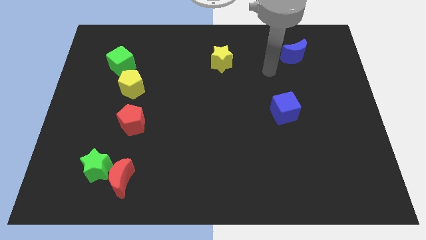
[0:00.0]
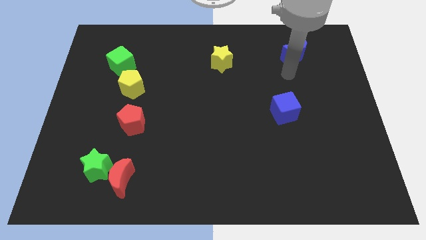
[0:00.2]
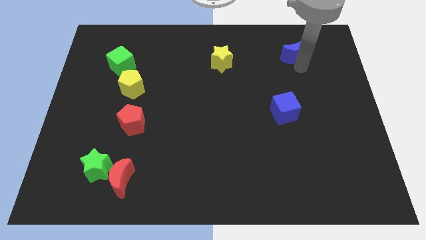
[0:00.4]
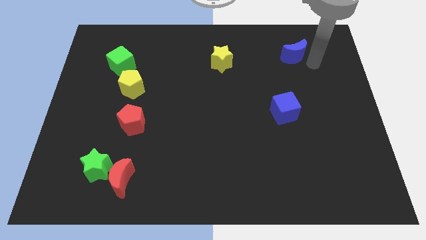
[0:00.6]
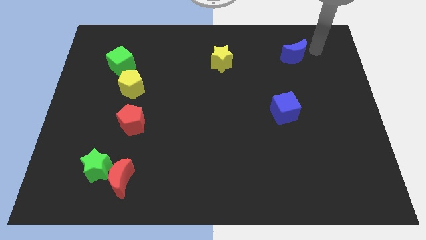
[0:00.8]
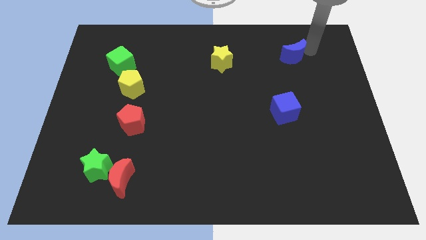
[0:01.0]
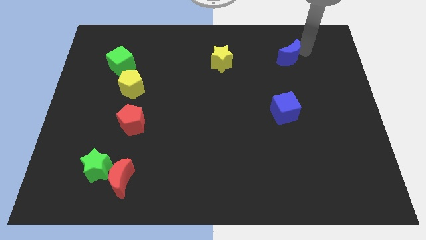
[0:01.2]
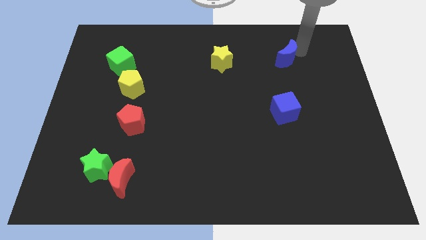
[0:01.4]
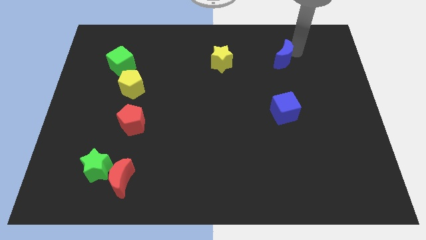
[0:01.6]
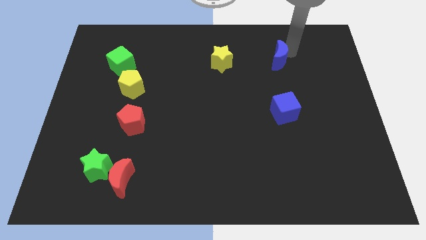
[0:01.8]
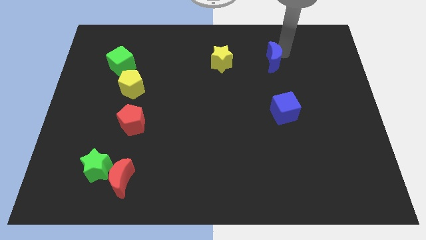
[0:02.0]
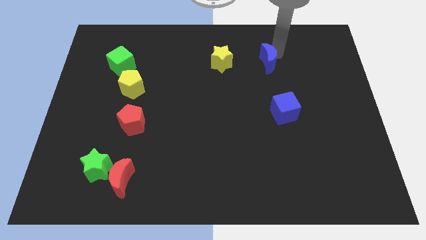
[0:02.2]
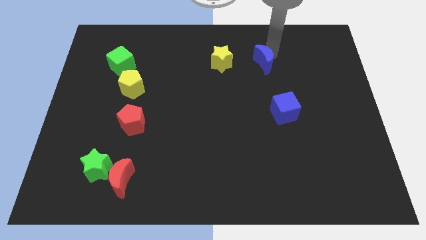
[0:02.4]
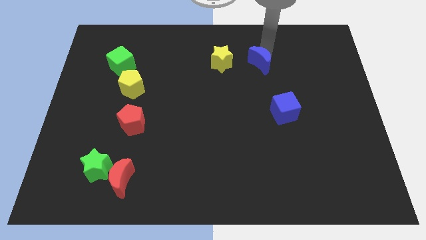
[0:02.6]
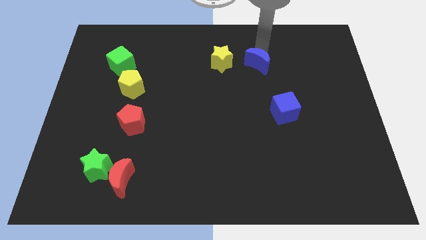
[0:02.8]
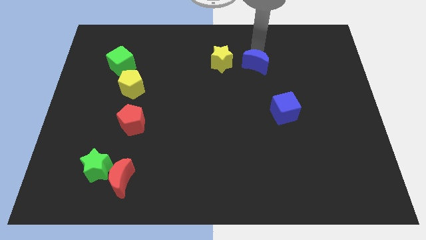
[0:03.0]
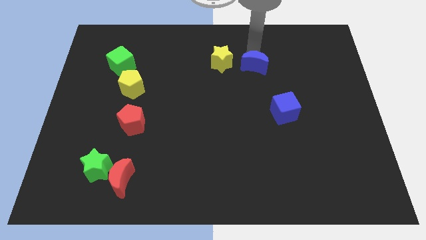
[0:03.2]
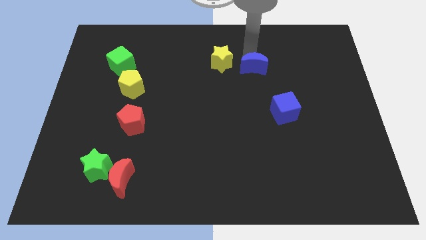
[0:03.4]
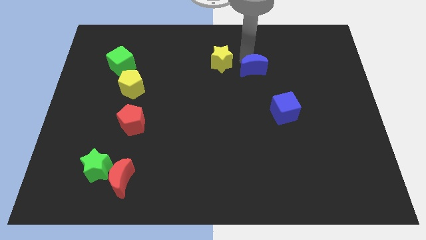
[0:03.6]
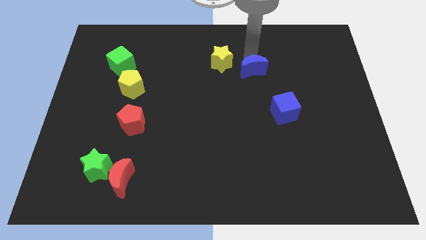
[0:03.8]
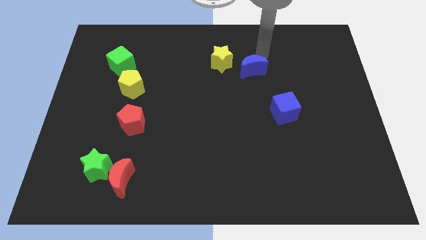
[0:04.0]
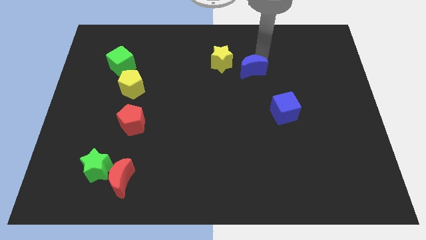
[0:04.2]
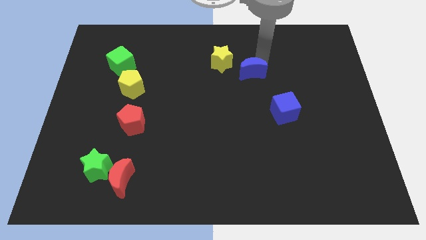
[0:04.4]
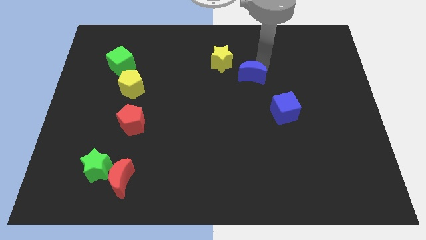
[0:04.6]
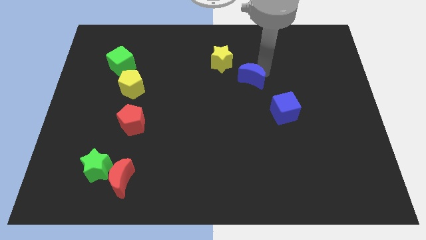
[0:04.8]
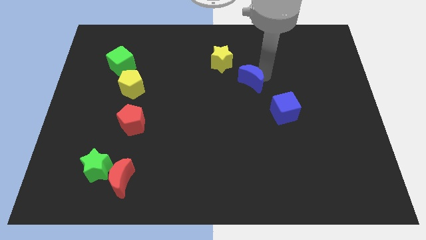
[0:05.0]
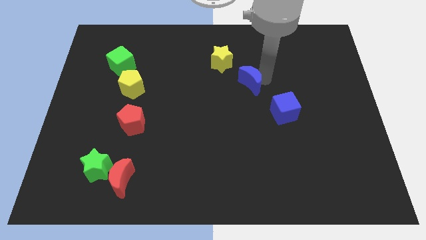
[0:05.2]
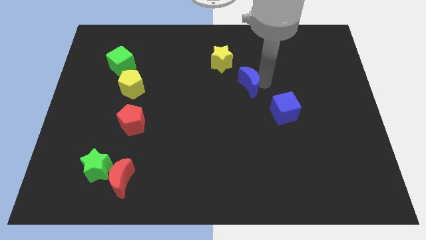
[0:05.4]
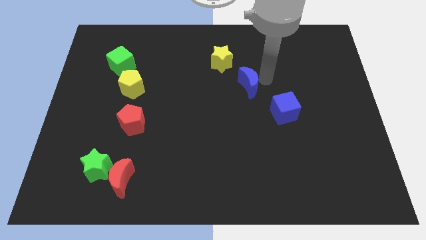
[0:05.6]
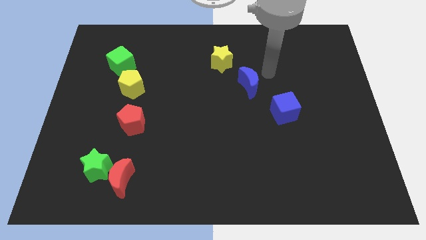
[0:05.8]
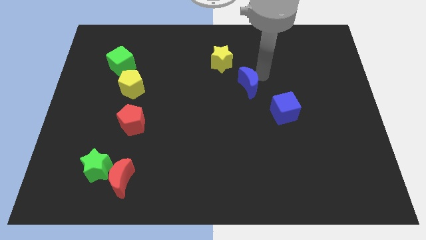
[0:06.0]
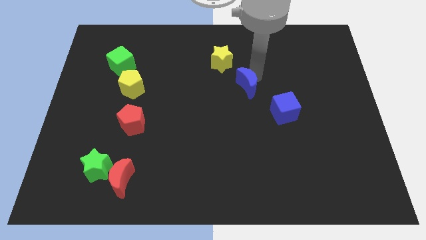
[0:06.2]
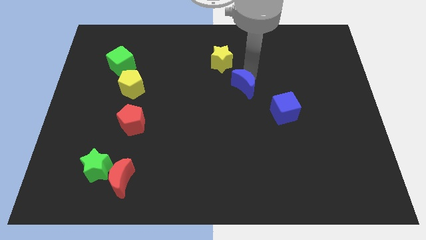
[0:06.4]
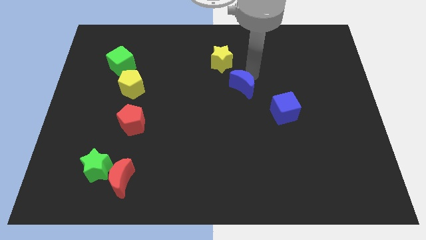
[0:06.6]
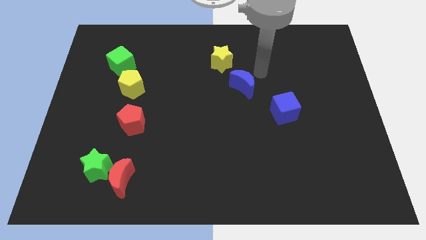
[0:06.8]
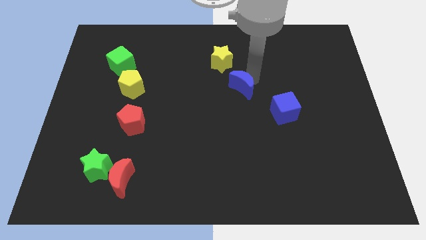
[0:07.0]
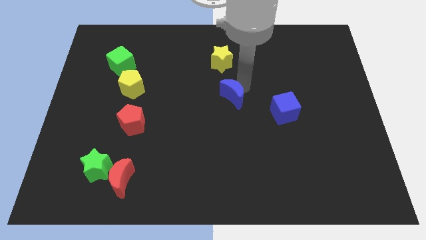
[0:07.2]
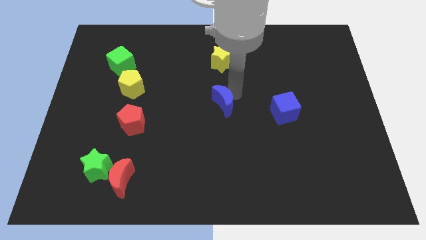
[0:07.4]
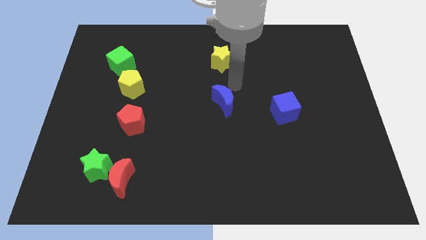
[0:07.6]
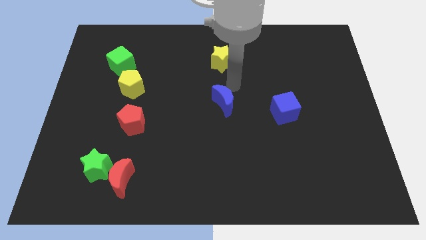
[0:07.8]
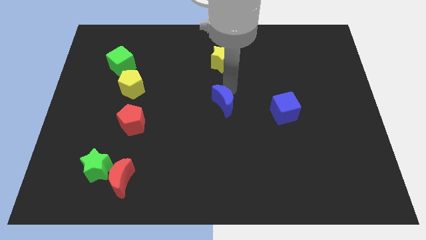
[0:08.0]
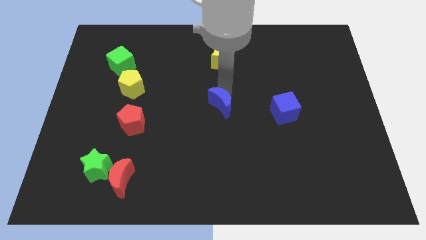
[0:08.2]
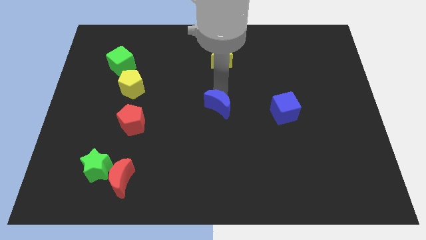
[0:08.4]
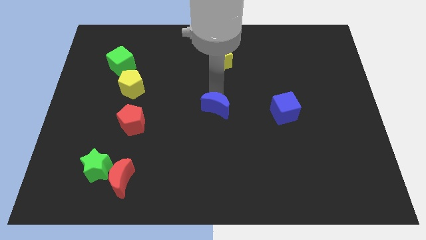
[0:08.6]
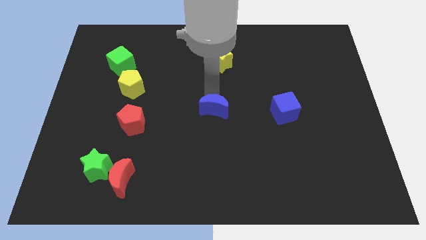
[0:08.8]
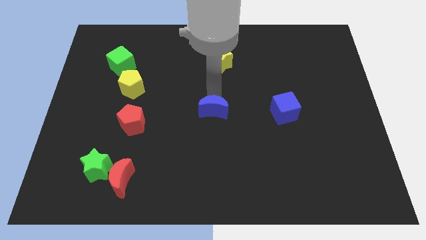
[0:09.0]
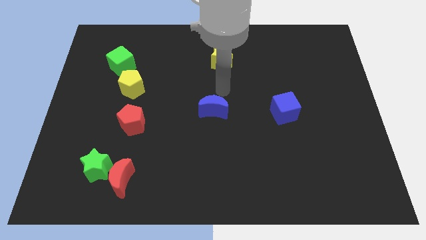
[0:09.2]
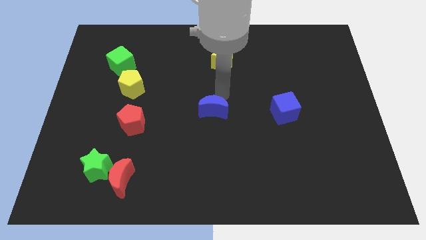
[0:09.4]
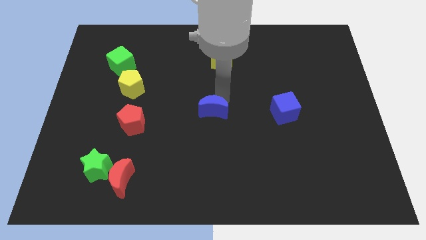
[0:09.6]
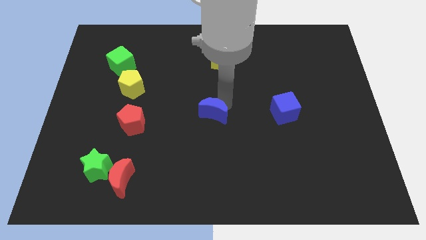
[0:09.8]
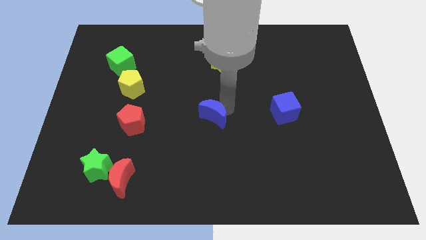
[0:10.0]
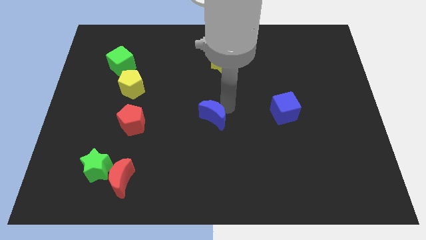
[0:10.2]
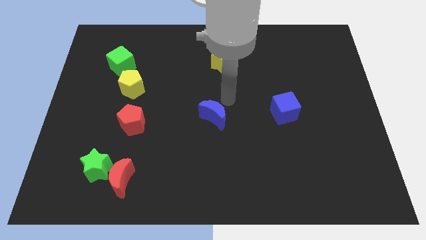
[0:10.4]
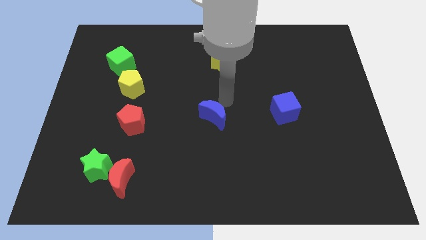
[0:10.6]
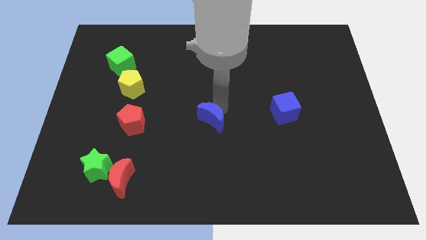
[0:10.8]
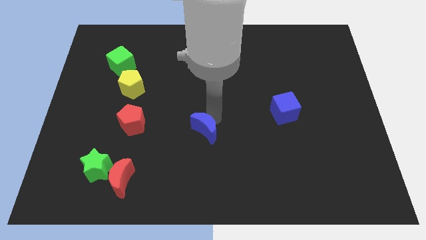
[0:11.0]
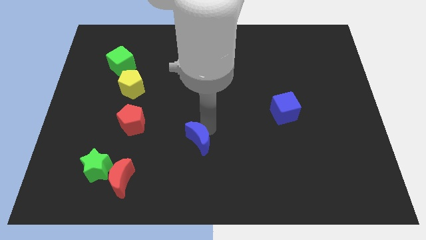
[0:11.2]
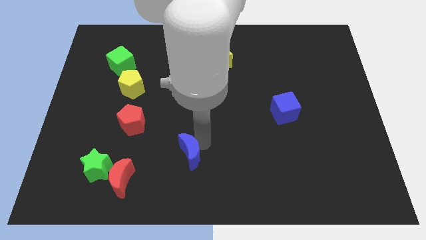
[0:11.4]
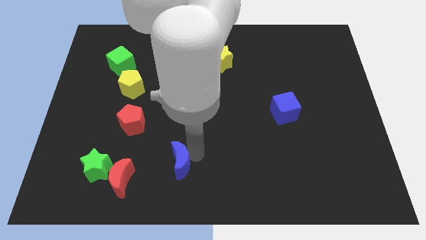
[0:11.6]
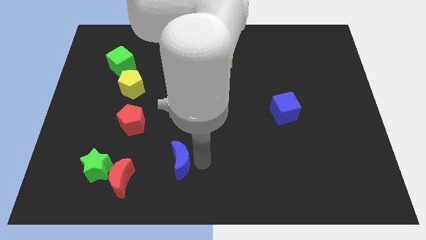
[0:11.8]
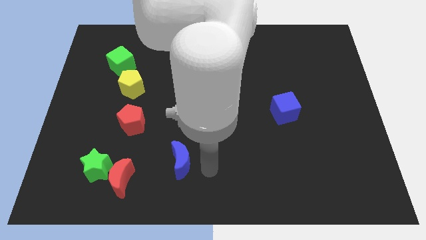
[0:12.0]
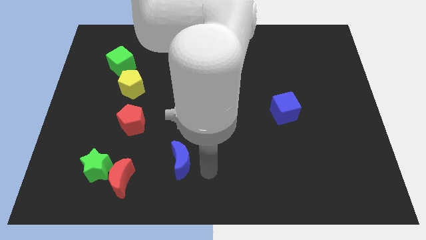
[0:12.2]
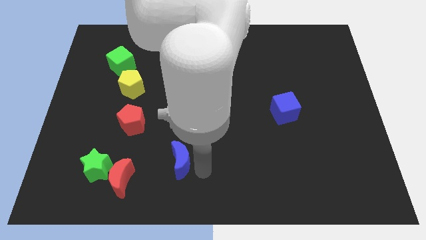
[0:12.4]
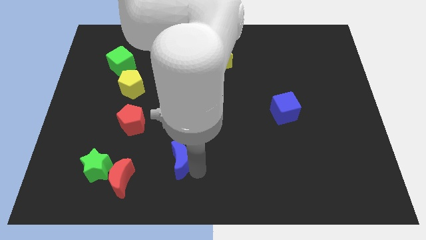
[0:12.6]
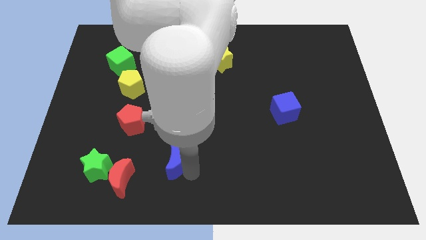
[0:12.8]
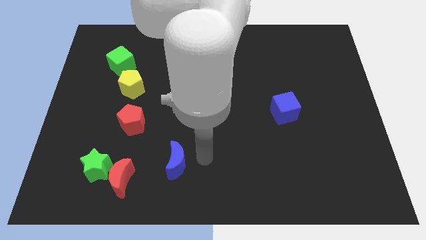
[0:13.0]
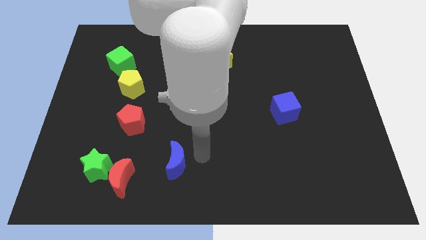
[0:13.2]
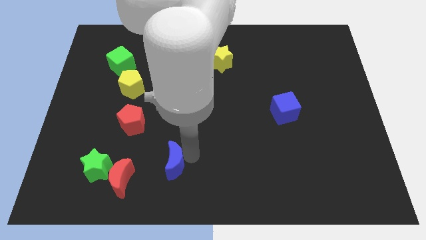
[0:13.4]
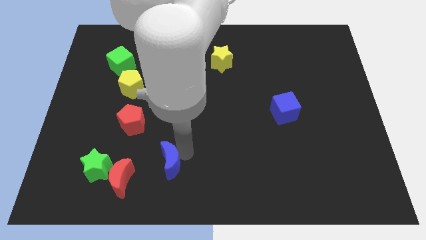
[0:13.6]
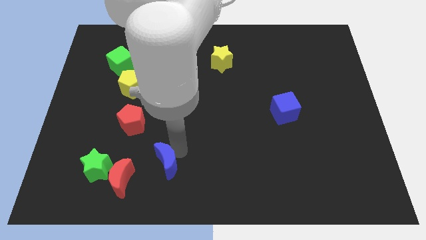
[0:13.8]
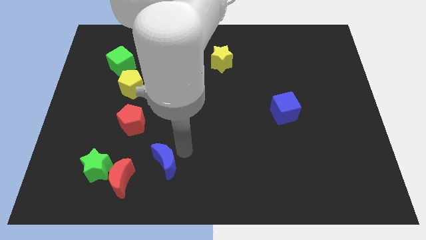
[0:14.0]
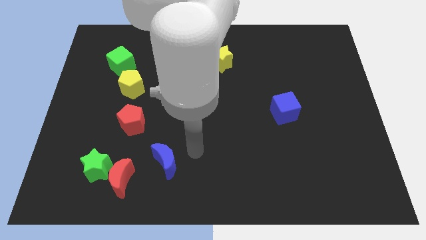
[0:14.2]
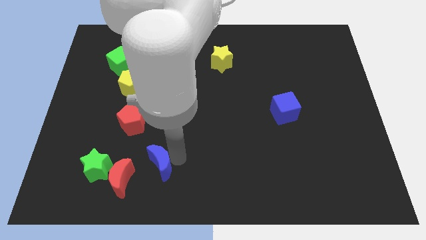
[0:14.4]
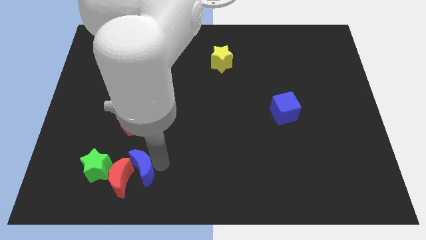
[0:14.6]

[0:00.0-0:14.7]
push the blue moon close to the red moon
